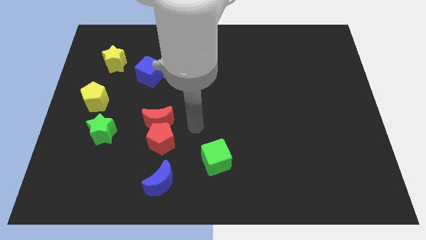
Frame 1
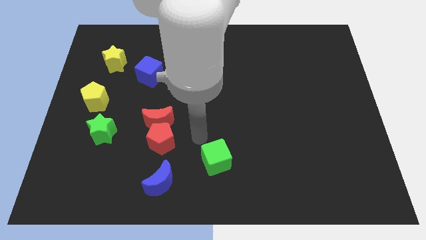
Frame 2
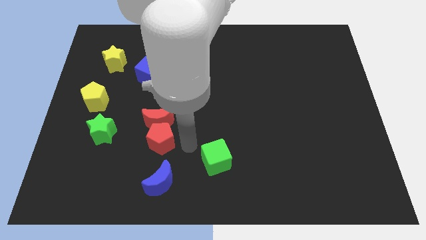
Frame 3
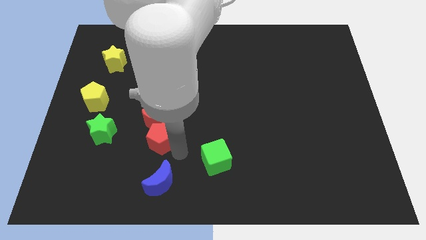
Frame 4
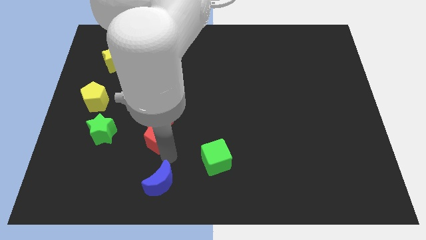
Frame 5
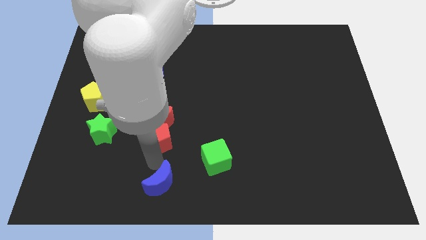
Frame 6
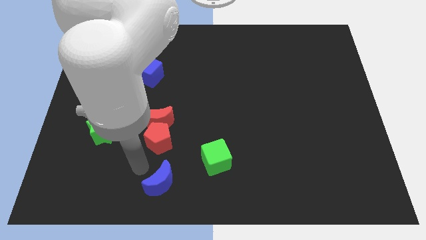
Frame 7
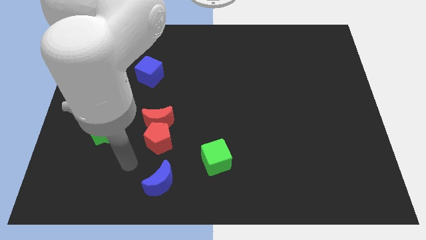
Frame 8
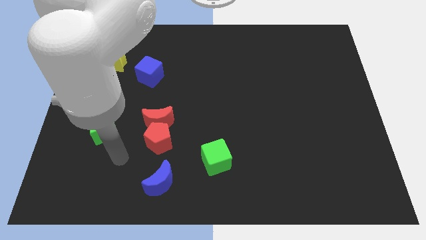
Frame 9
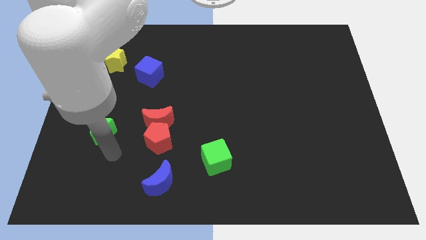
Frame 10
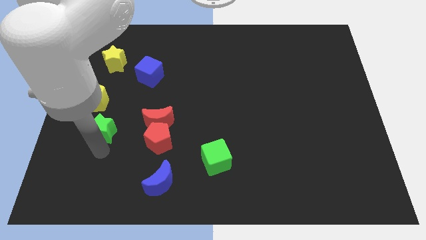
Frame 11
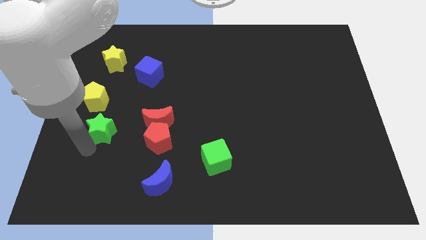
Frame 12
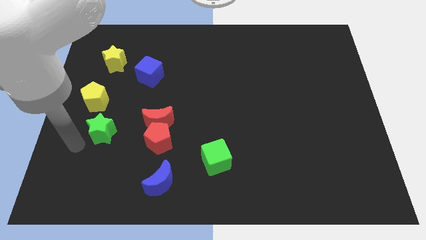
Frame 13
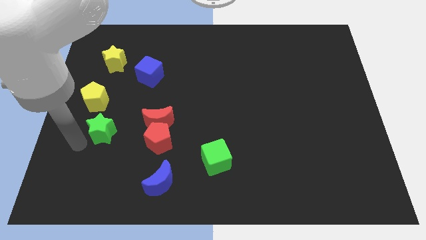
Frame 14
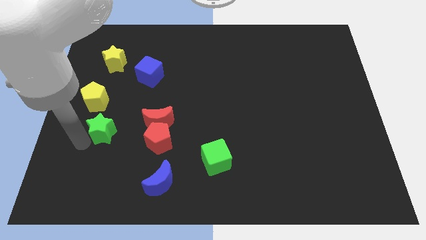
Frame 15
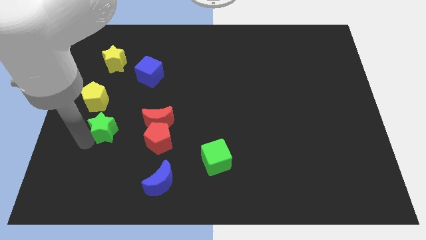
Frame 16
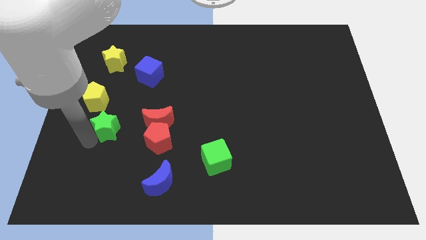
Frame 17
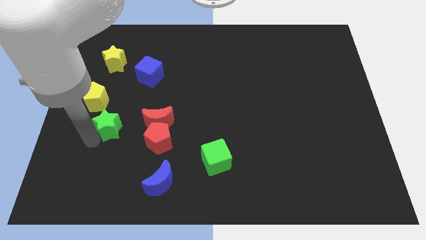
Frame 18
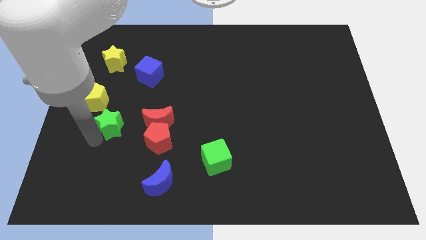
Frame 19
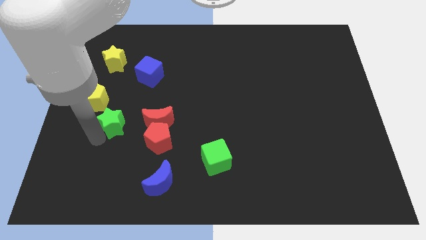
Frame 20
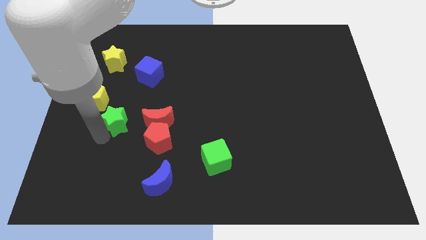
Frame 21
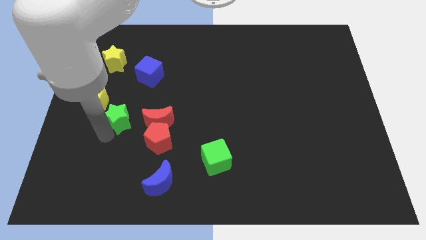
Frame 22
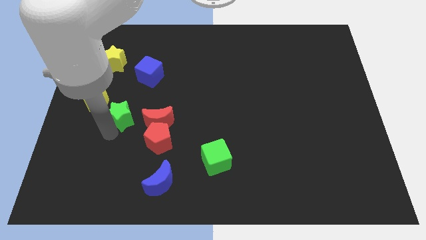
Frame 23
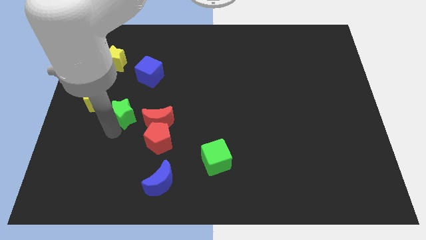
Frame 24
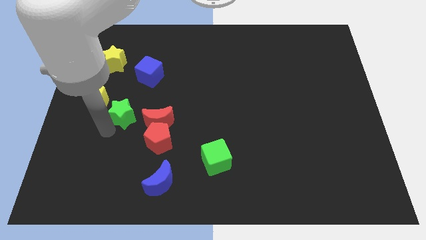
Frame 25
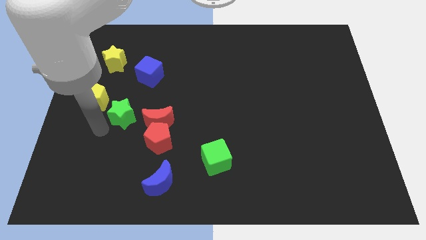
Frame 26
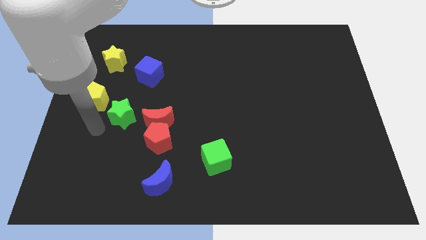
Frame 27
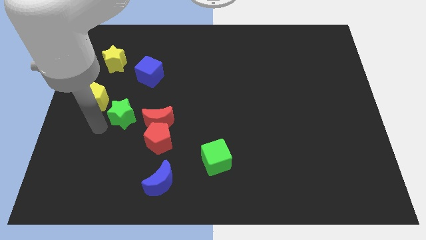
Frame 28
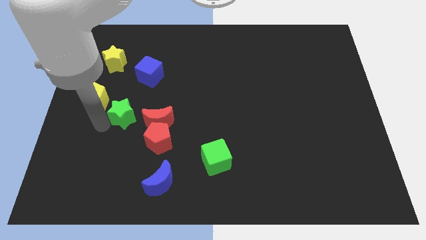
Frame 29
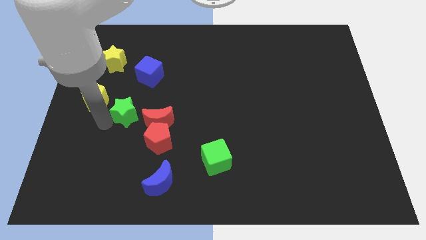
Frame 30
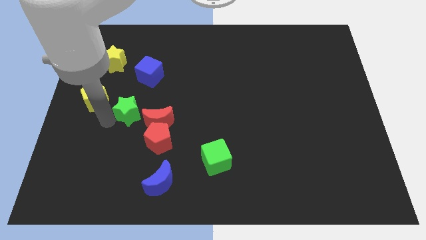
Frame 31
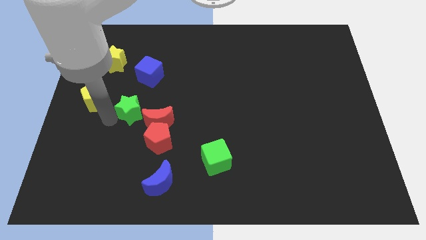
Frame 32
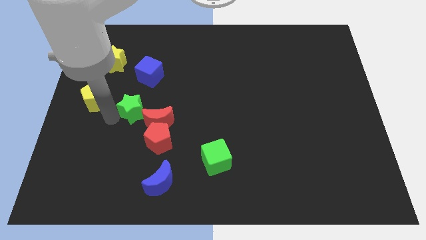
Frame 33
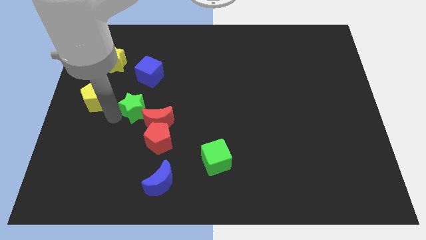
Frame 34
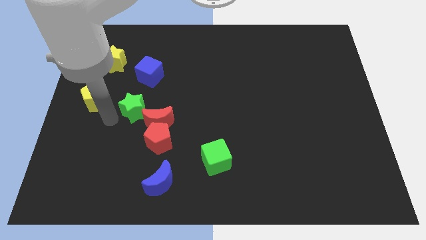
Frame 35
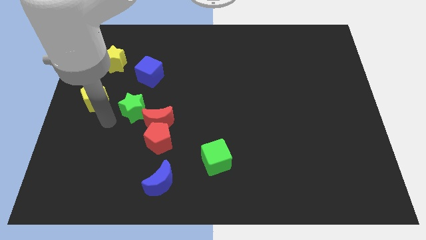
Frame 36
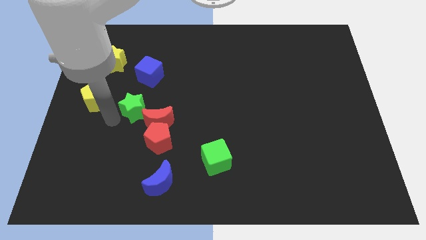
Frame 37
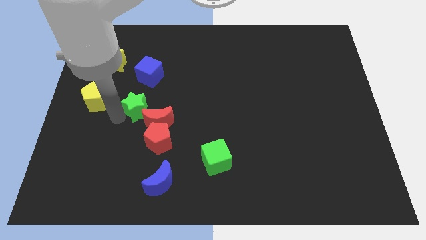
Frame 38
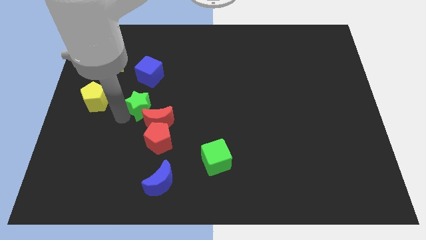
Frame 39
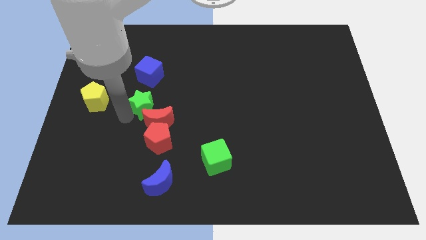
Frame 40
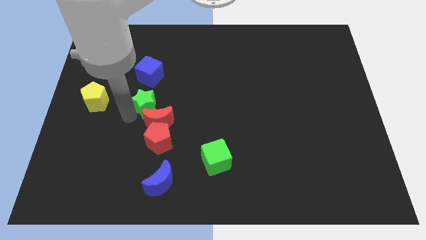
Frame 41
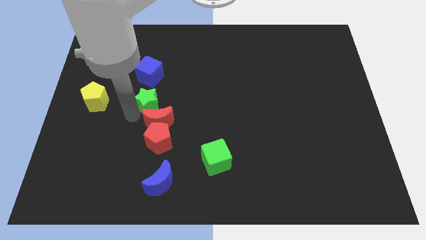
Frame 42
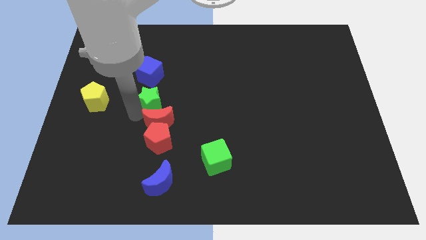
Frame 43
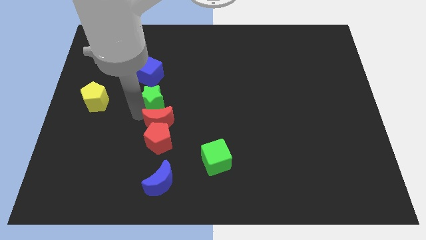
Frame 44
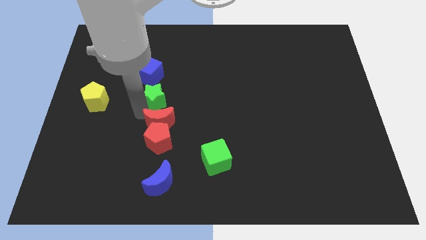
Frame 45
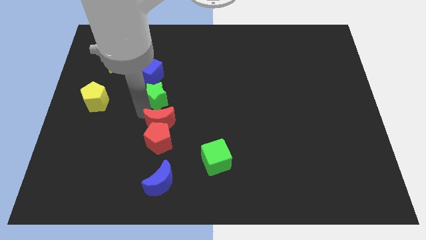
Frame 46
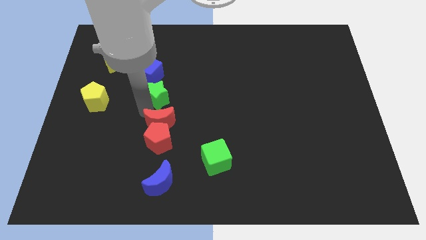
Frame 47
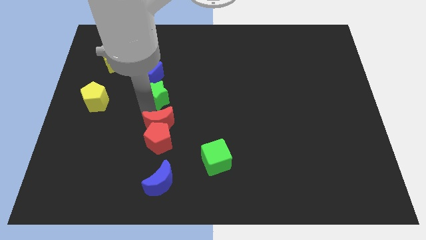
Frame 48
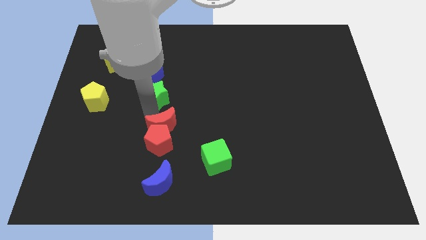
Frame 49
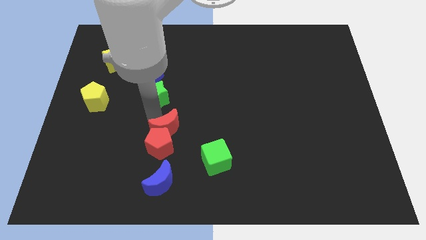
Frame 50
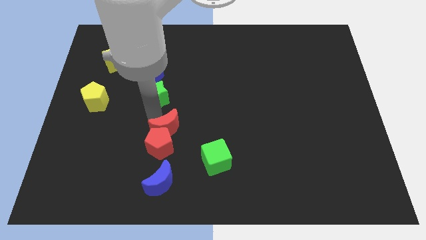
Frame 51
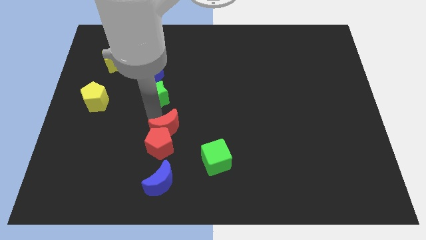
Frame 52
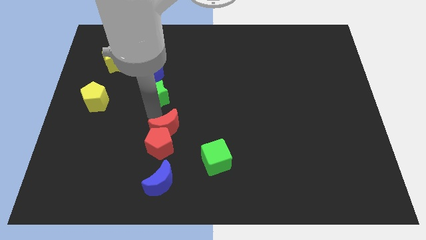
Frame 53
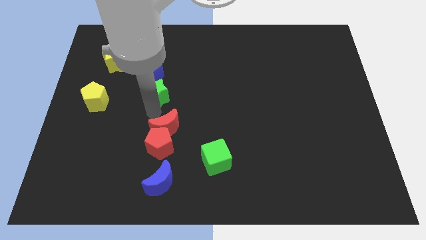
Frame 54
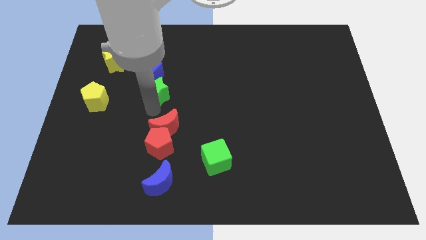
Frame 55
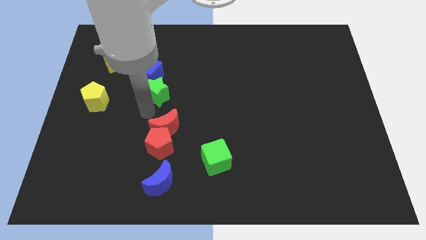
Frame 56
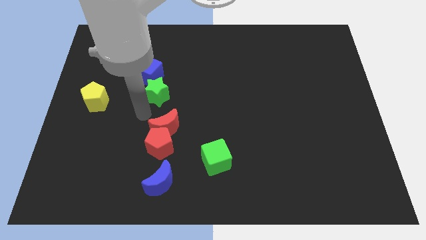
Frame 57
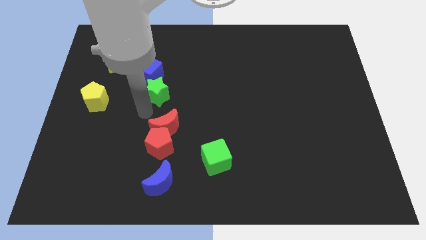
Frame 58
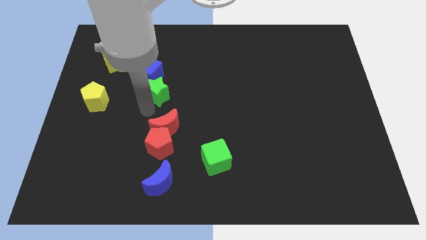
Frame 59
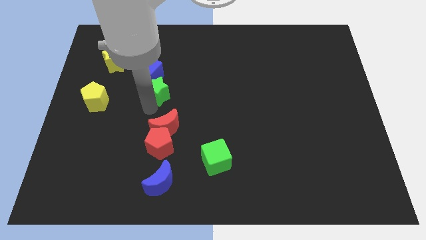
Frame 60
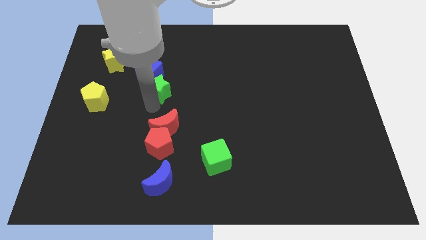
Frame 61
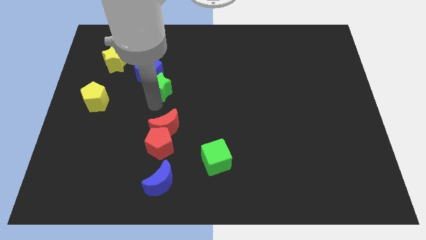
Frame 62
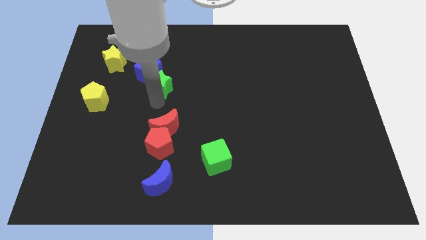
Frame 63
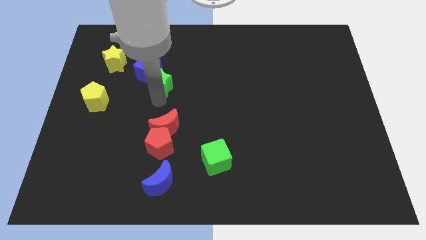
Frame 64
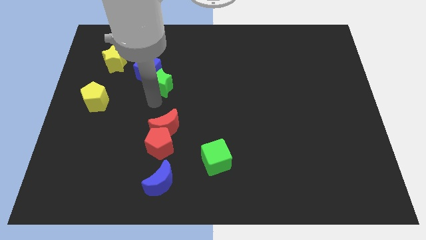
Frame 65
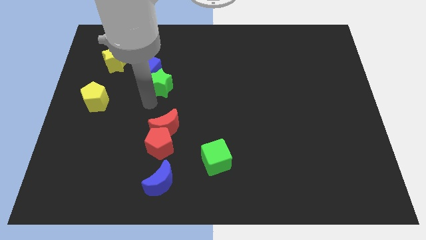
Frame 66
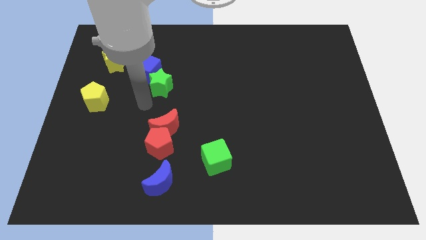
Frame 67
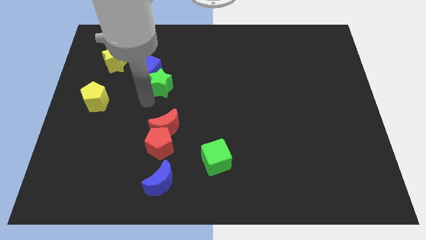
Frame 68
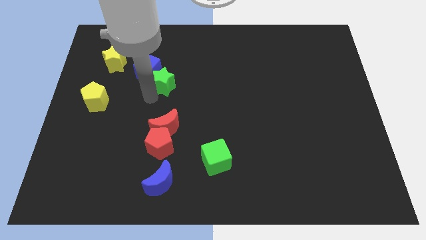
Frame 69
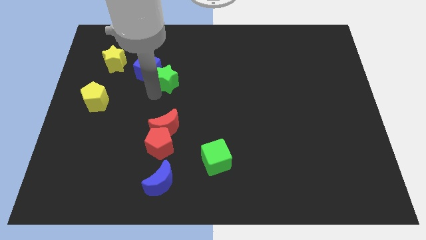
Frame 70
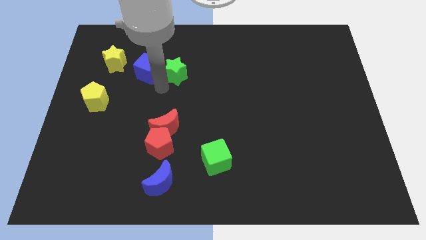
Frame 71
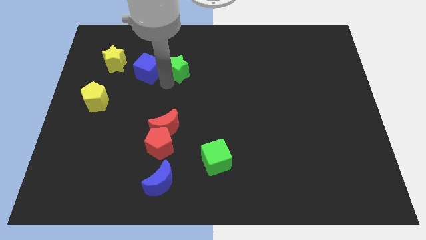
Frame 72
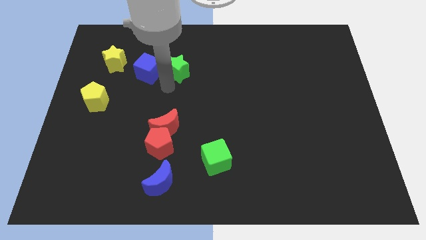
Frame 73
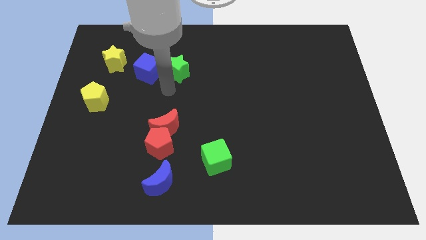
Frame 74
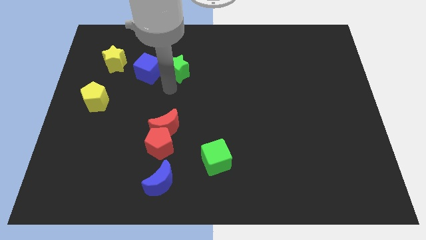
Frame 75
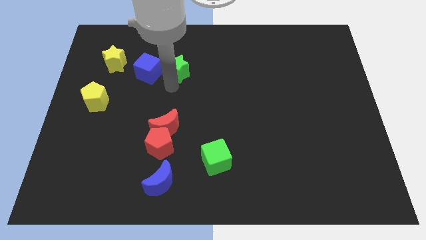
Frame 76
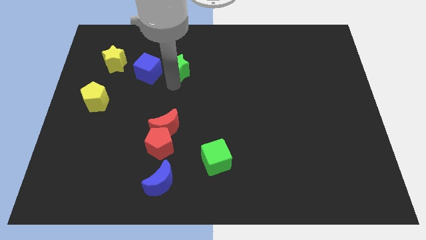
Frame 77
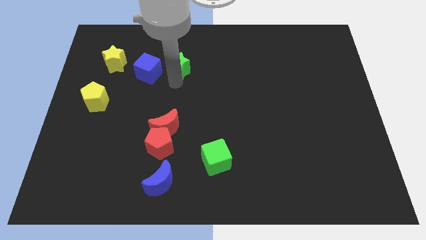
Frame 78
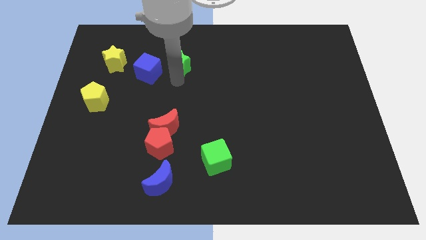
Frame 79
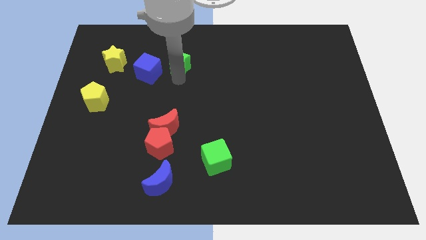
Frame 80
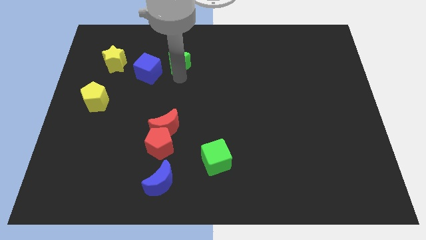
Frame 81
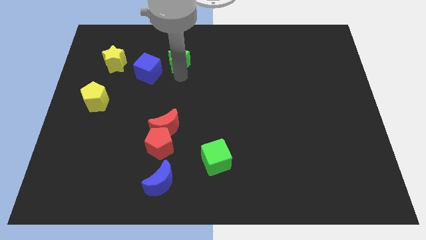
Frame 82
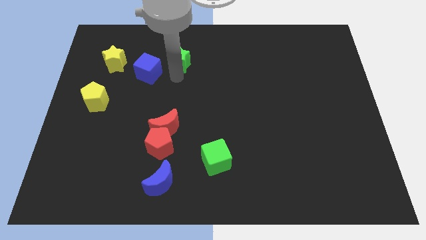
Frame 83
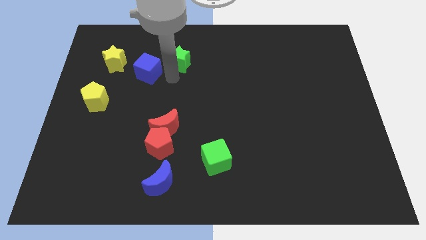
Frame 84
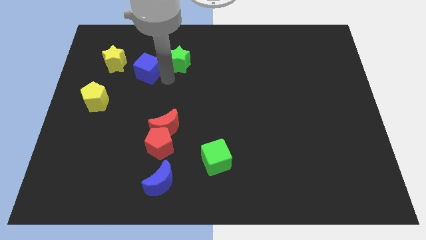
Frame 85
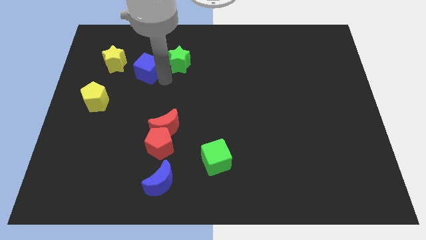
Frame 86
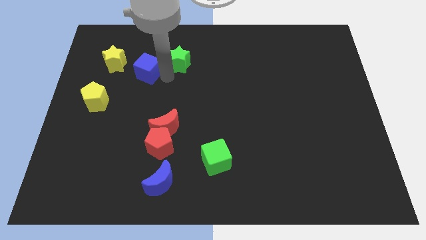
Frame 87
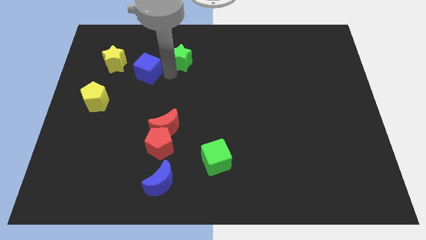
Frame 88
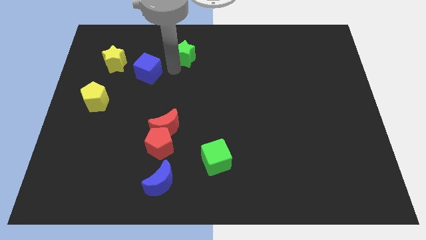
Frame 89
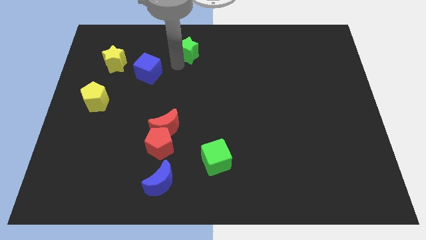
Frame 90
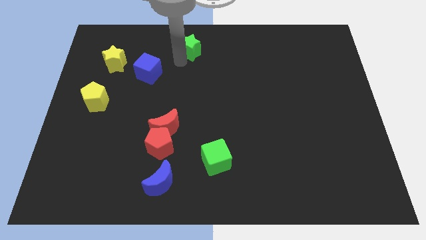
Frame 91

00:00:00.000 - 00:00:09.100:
slide the green star to the towards your base
